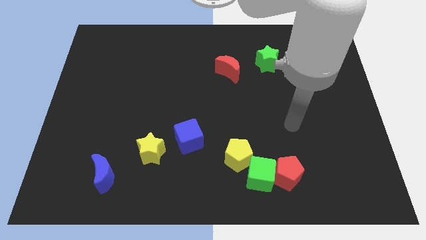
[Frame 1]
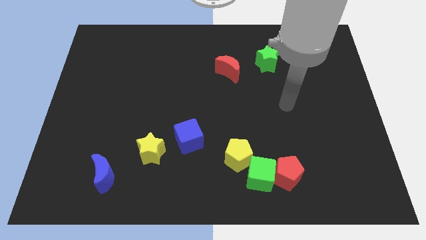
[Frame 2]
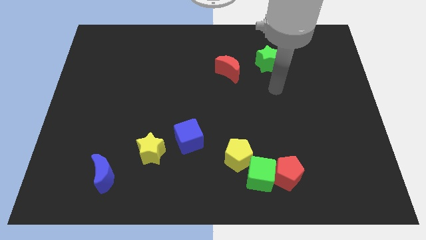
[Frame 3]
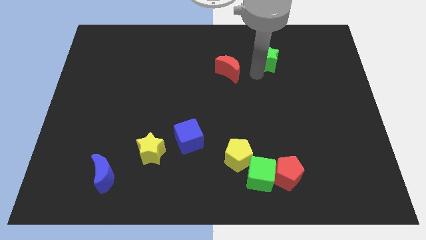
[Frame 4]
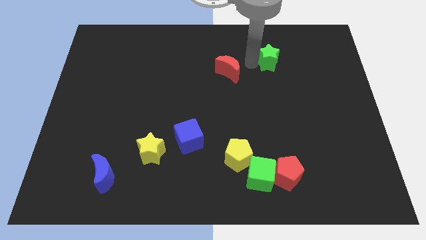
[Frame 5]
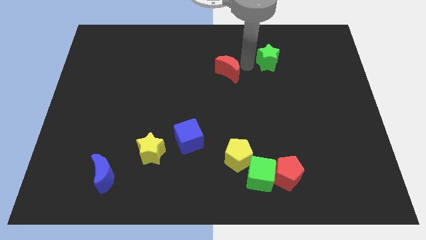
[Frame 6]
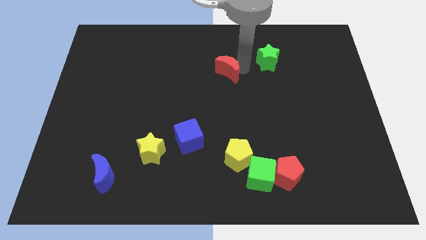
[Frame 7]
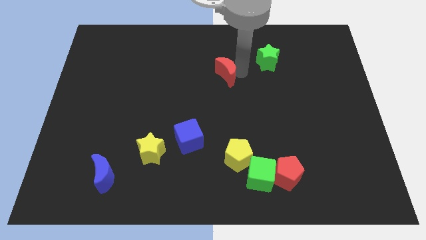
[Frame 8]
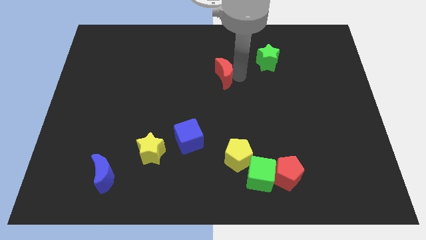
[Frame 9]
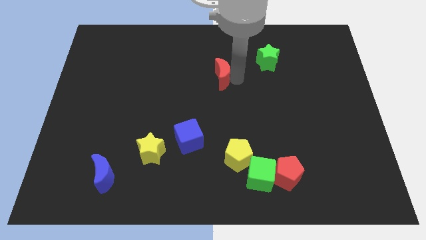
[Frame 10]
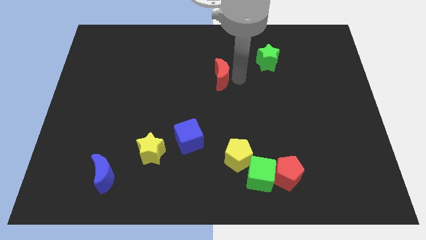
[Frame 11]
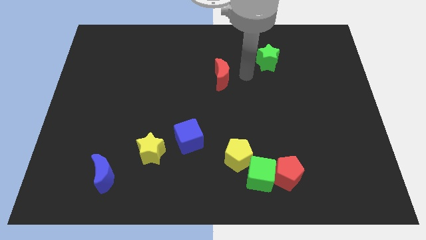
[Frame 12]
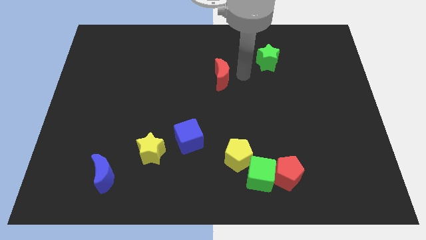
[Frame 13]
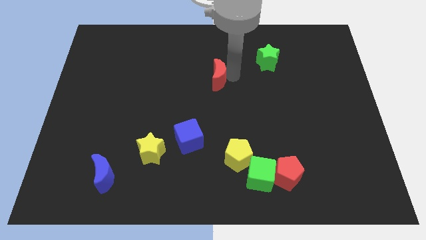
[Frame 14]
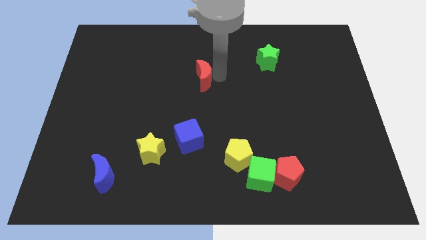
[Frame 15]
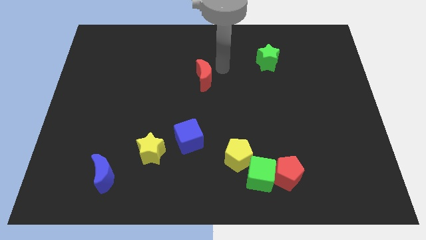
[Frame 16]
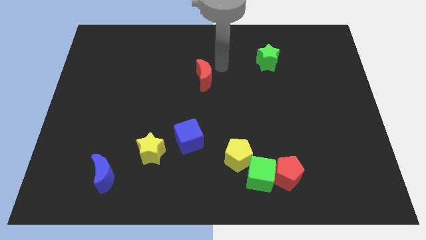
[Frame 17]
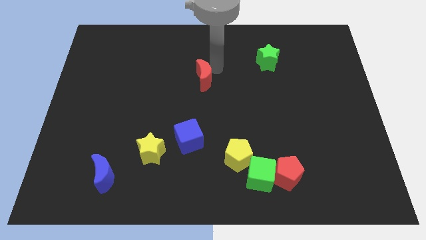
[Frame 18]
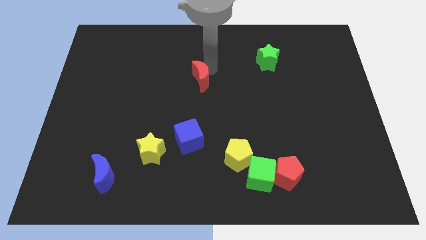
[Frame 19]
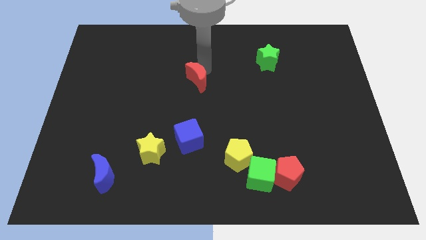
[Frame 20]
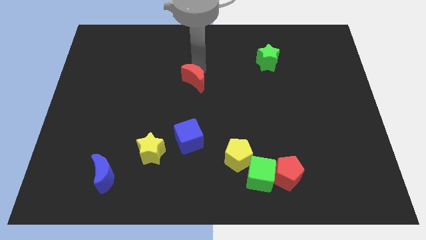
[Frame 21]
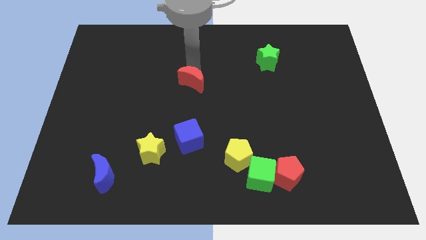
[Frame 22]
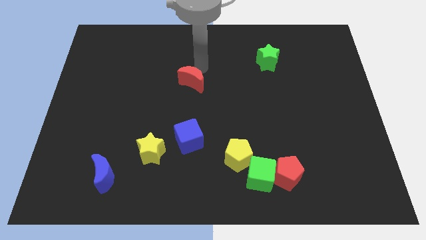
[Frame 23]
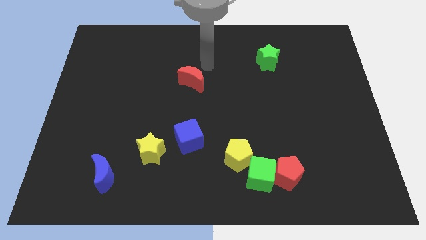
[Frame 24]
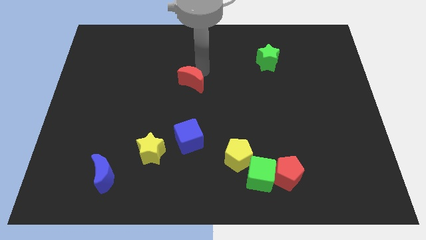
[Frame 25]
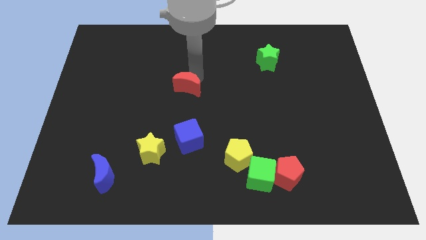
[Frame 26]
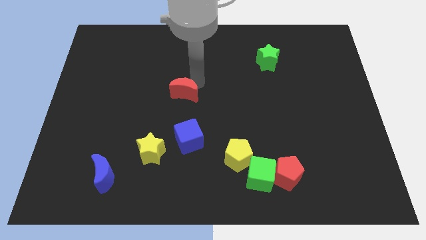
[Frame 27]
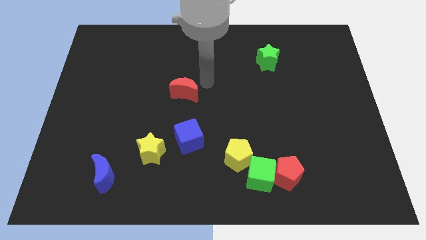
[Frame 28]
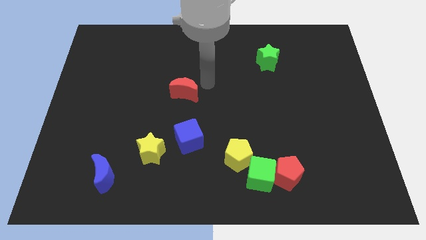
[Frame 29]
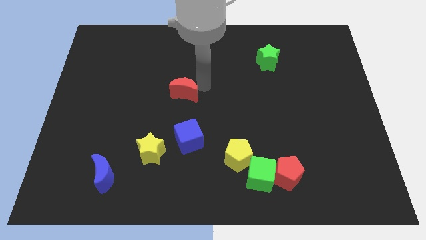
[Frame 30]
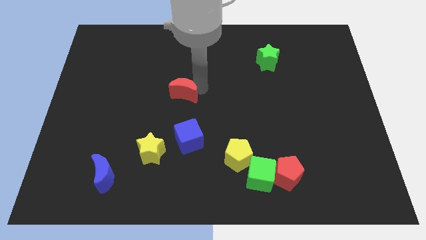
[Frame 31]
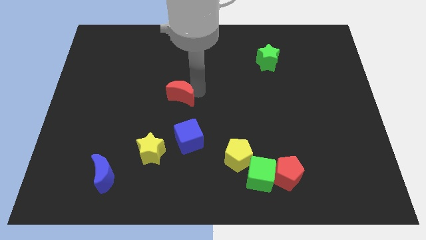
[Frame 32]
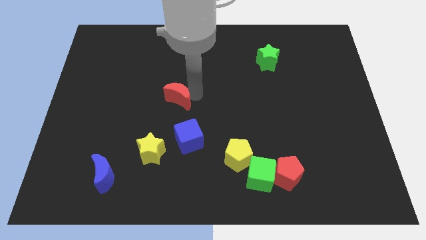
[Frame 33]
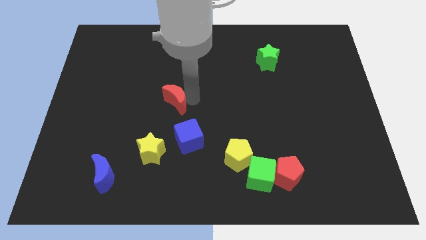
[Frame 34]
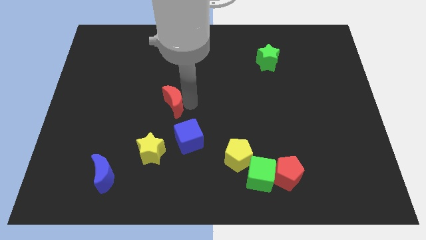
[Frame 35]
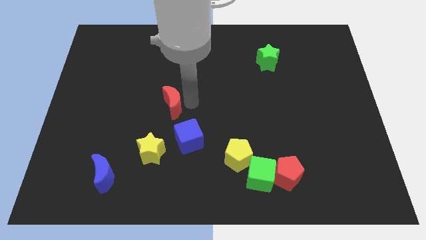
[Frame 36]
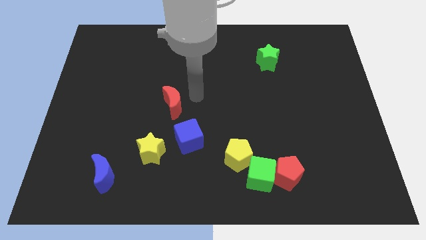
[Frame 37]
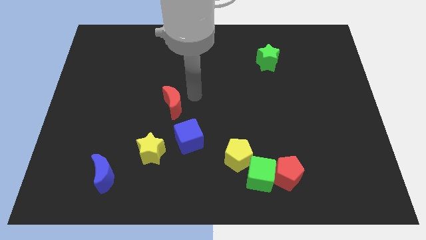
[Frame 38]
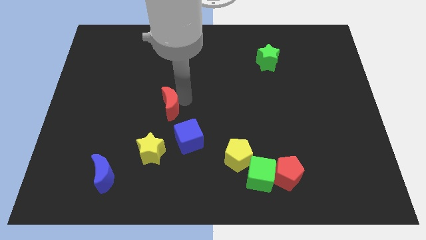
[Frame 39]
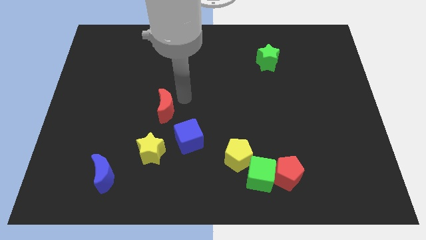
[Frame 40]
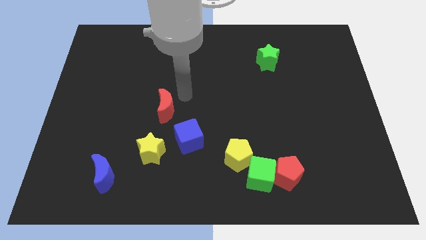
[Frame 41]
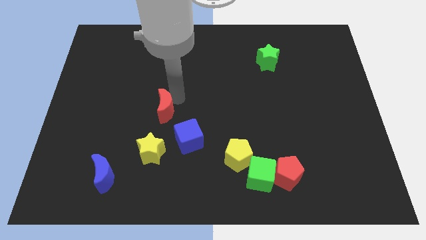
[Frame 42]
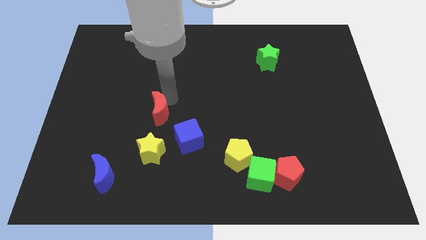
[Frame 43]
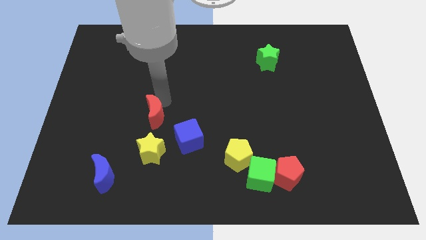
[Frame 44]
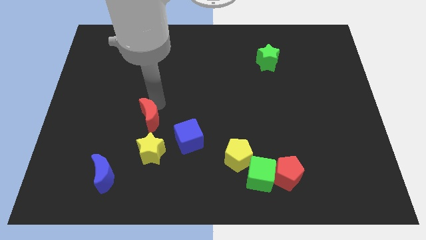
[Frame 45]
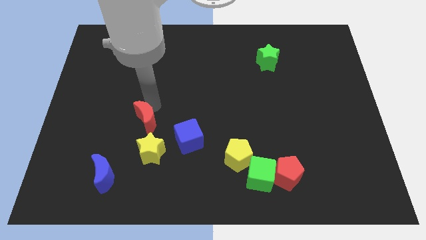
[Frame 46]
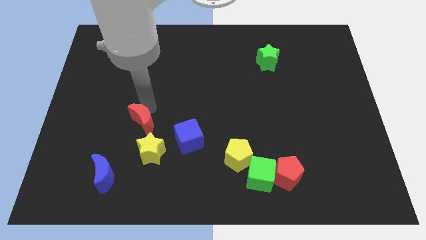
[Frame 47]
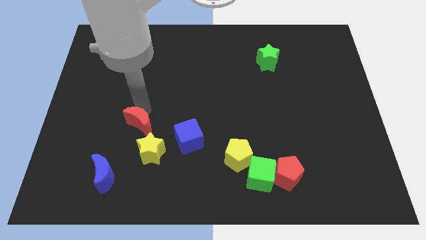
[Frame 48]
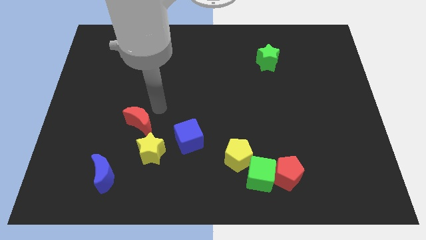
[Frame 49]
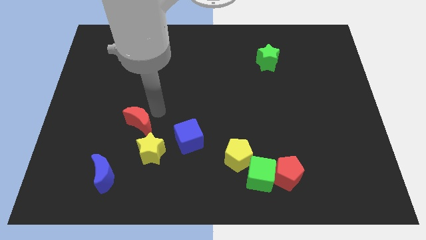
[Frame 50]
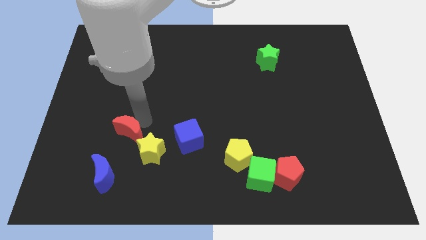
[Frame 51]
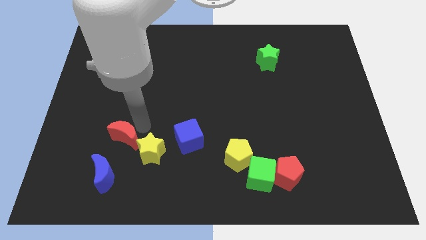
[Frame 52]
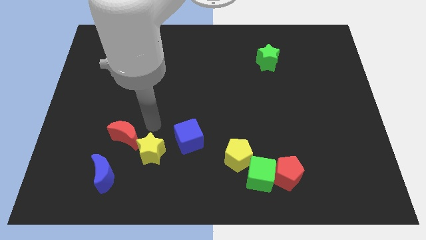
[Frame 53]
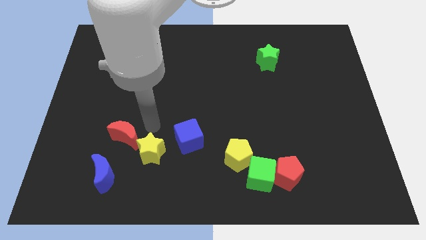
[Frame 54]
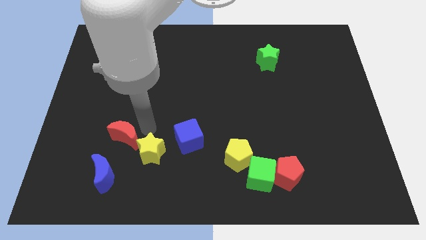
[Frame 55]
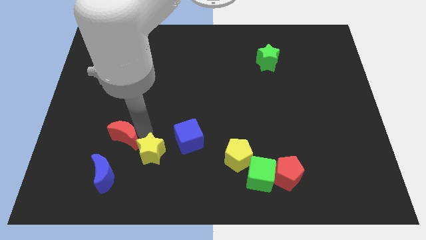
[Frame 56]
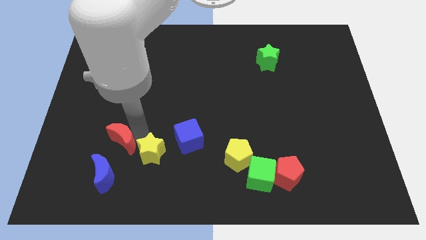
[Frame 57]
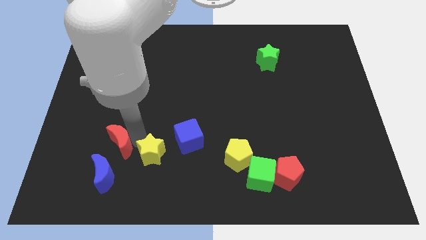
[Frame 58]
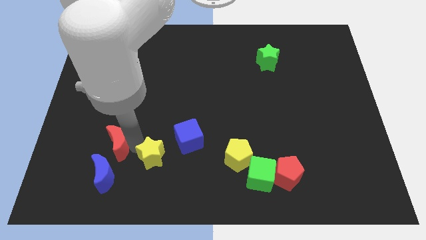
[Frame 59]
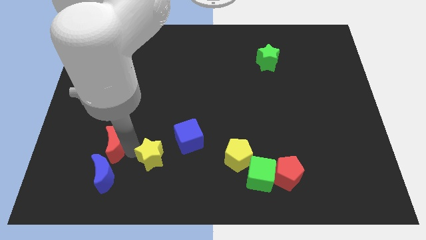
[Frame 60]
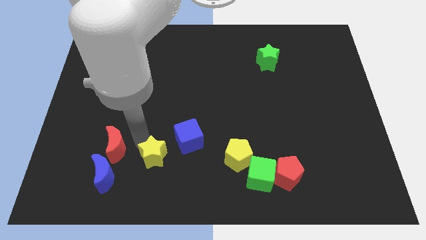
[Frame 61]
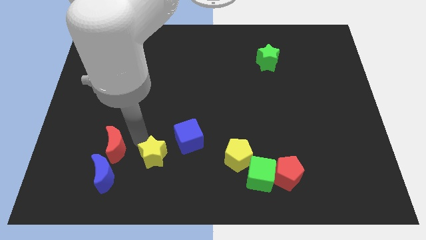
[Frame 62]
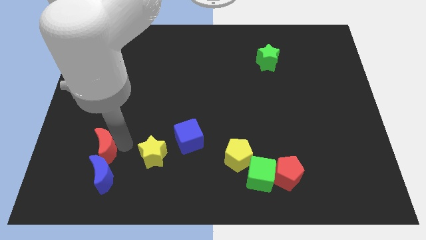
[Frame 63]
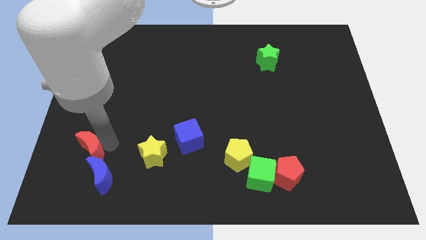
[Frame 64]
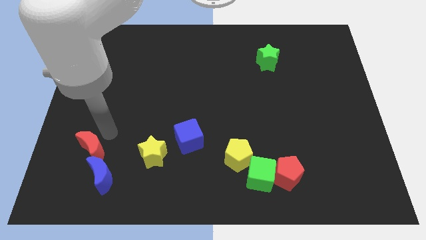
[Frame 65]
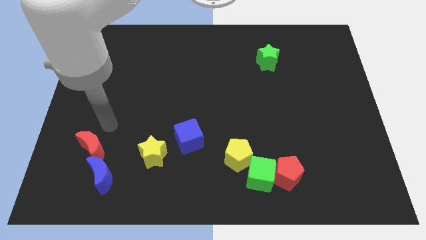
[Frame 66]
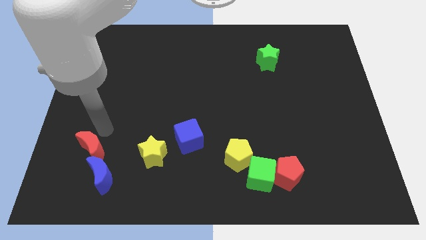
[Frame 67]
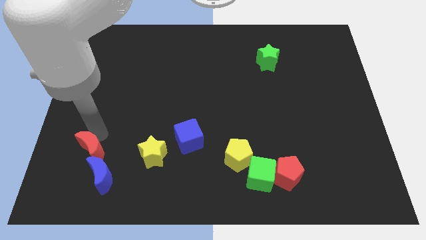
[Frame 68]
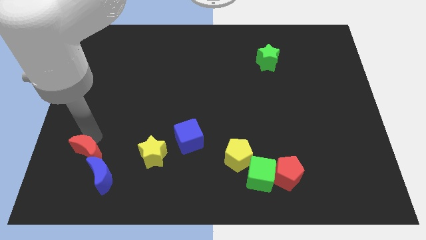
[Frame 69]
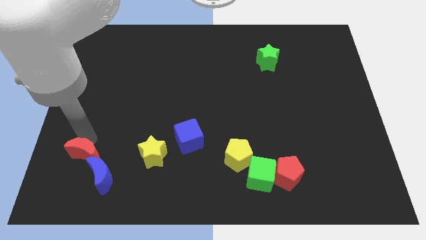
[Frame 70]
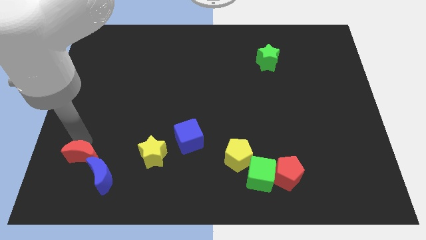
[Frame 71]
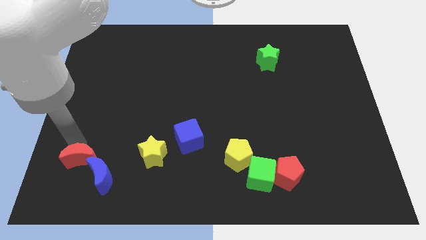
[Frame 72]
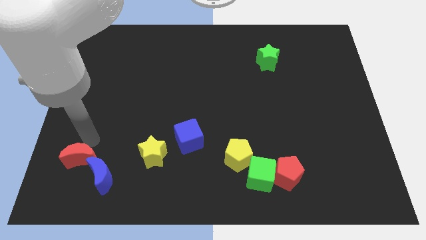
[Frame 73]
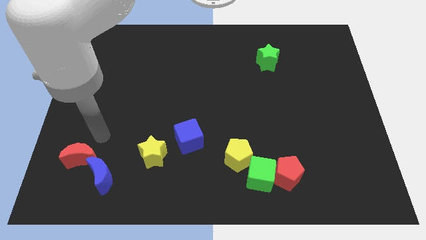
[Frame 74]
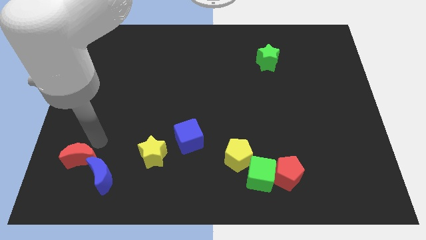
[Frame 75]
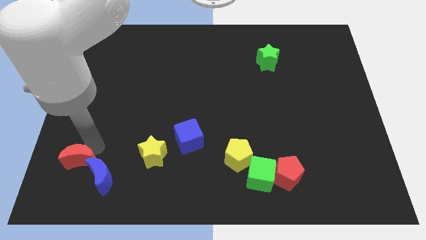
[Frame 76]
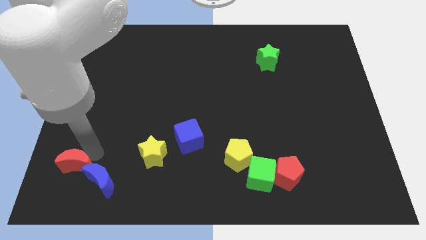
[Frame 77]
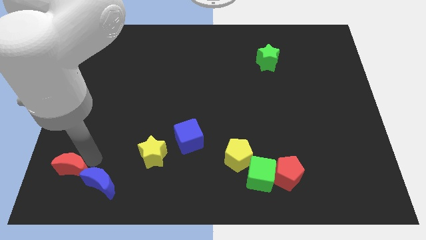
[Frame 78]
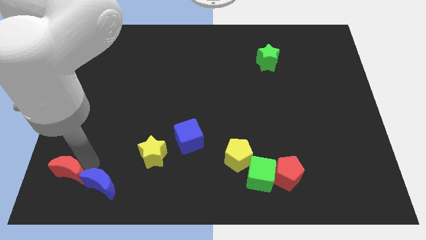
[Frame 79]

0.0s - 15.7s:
push the red moon to the bottom left
